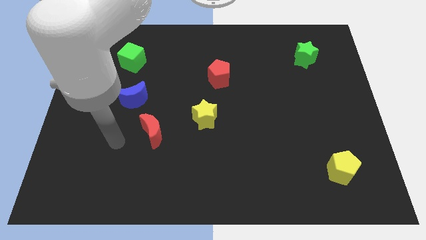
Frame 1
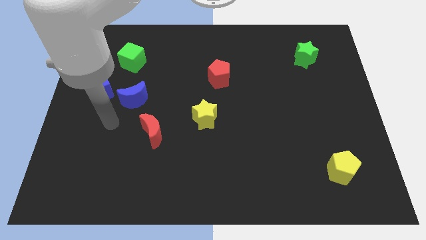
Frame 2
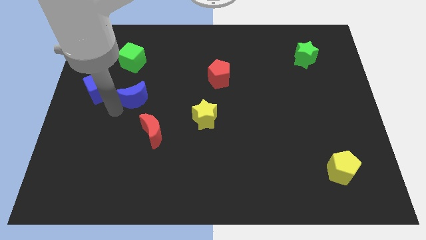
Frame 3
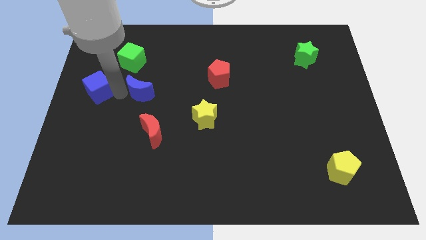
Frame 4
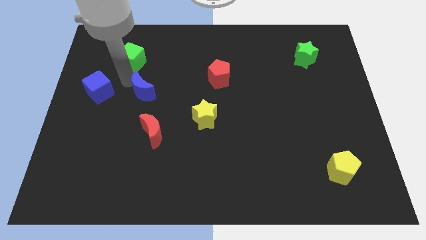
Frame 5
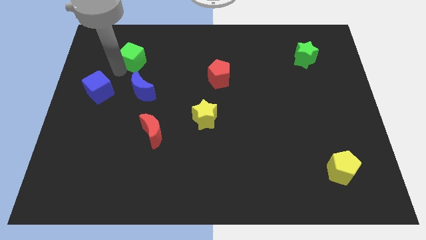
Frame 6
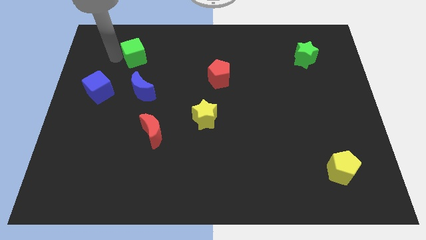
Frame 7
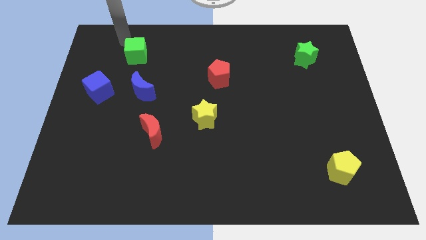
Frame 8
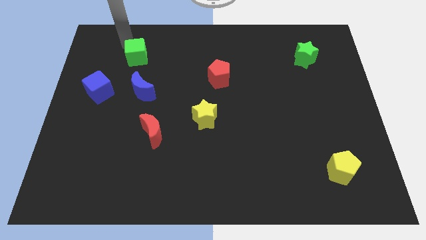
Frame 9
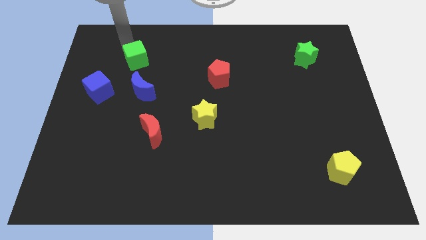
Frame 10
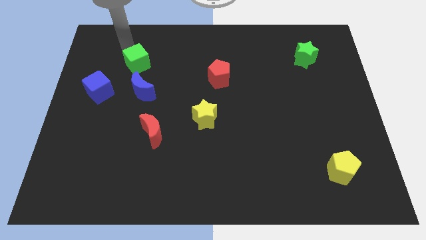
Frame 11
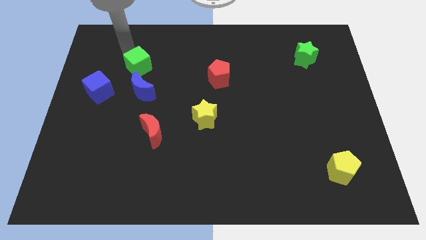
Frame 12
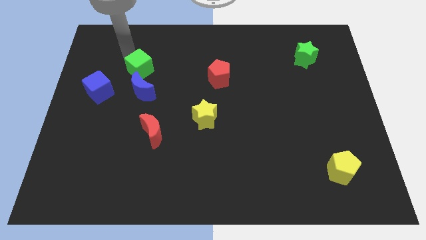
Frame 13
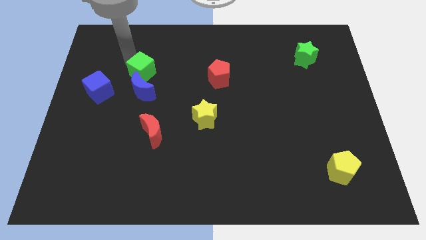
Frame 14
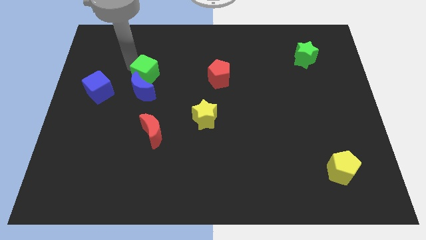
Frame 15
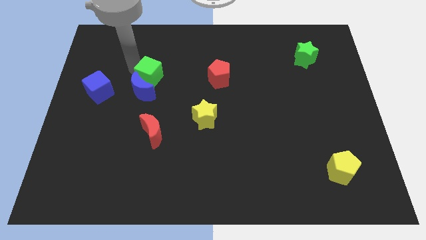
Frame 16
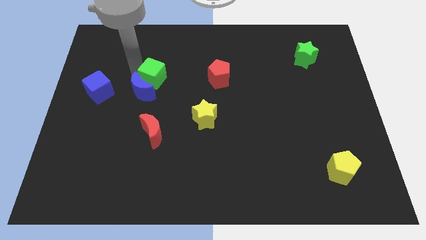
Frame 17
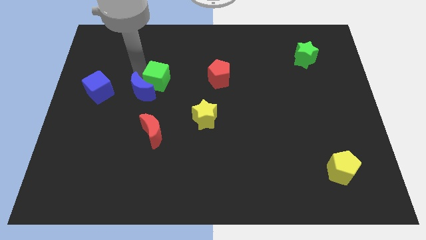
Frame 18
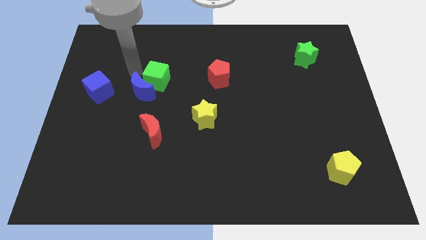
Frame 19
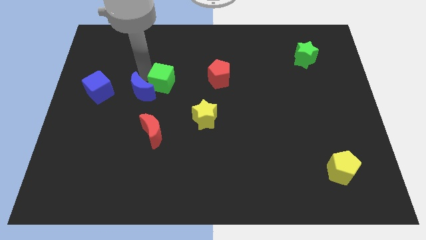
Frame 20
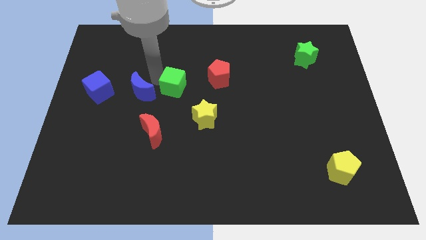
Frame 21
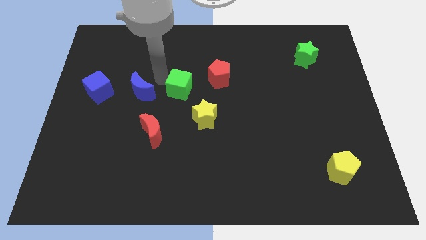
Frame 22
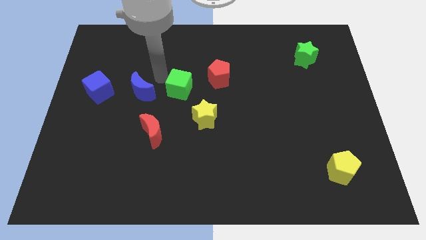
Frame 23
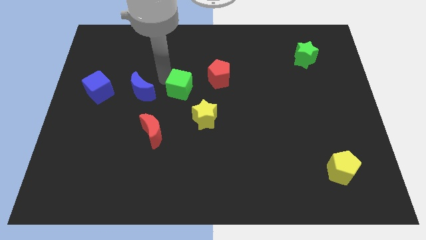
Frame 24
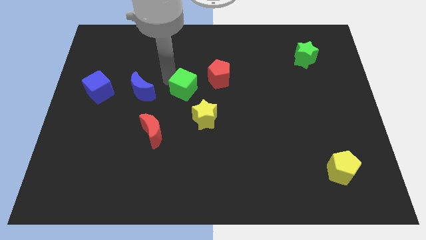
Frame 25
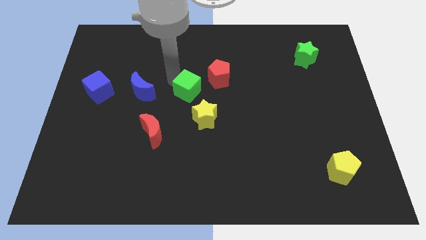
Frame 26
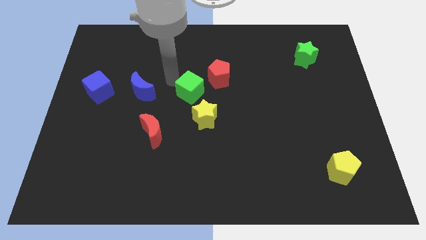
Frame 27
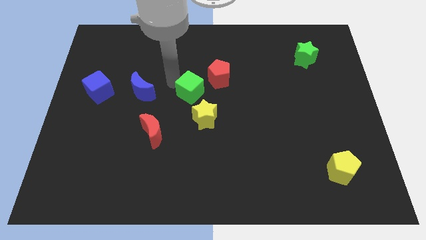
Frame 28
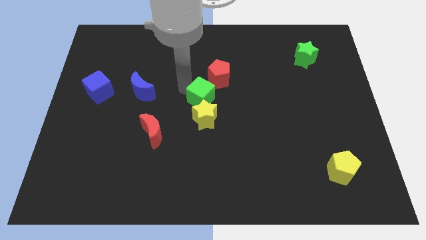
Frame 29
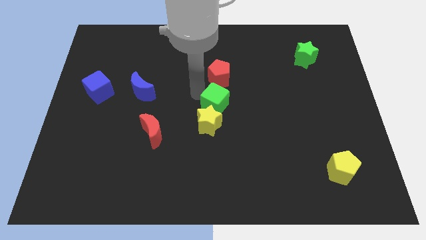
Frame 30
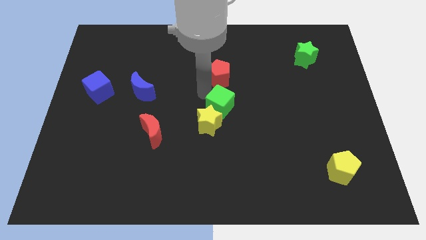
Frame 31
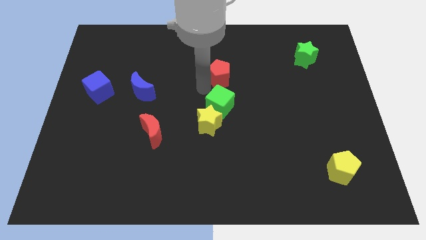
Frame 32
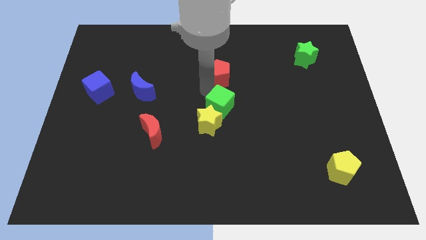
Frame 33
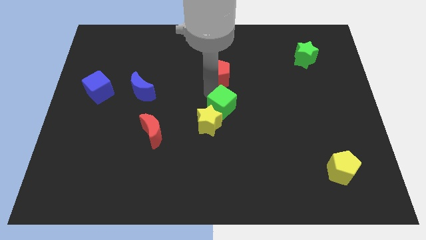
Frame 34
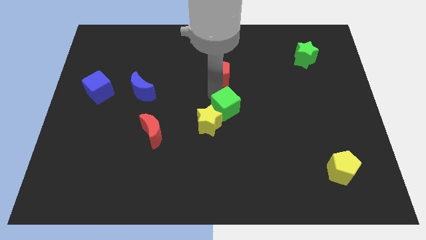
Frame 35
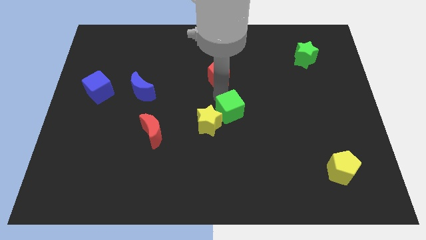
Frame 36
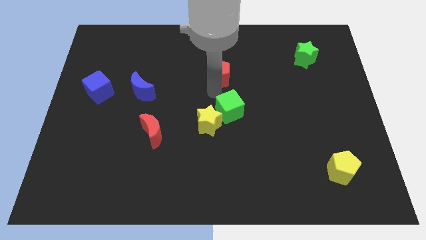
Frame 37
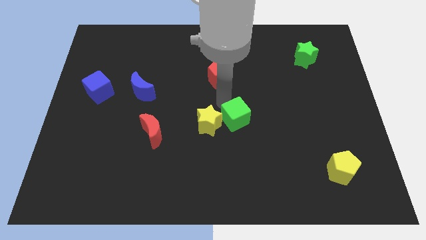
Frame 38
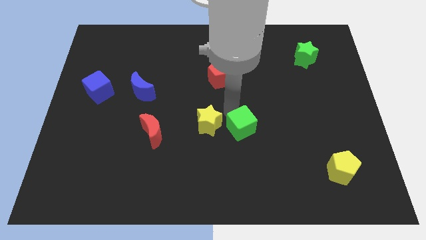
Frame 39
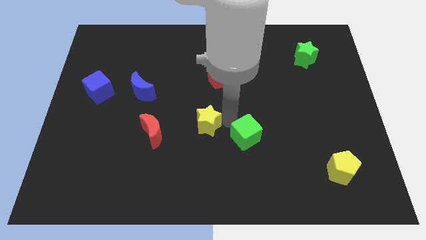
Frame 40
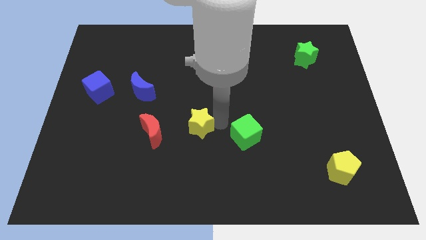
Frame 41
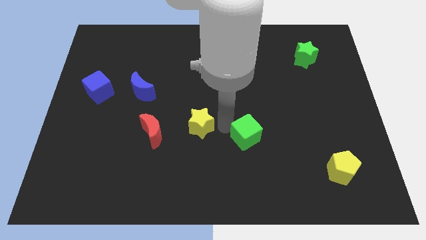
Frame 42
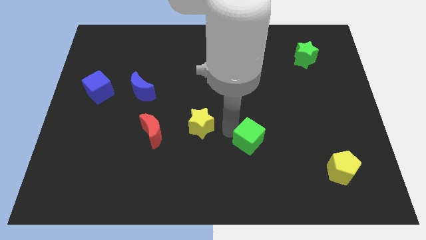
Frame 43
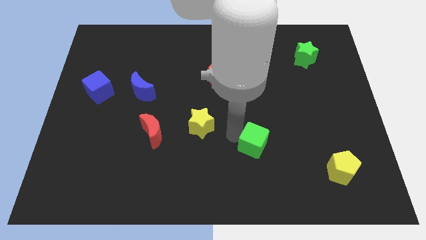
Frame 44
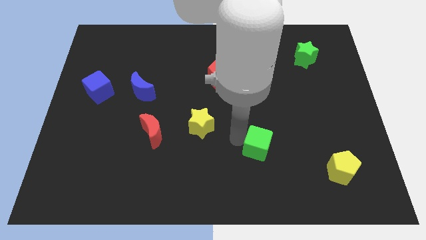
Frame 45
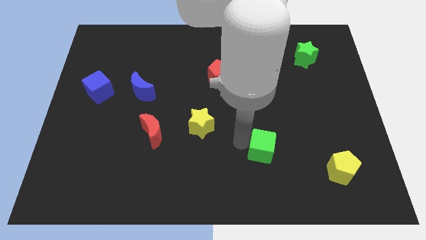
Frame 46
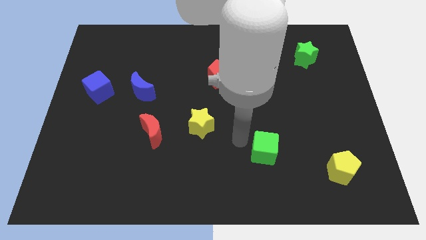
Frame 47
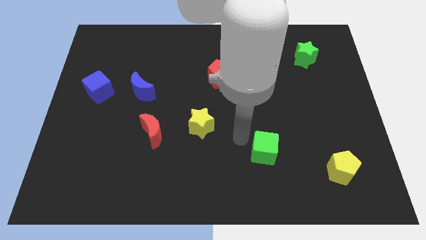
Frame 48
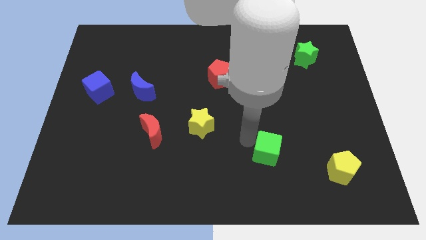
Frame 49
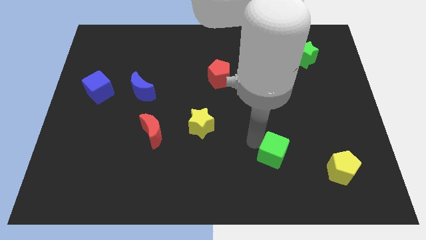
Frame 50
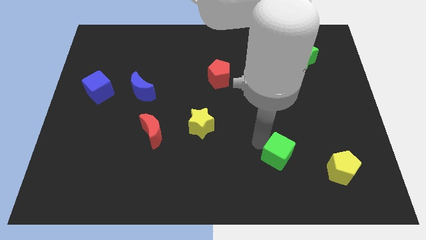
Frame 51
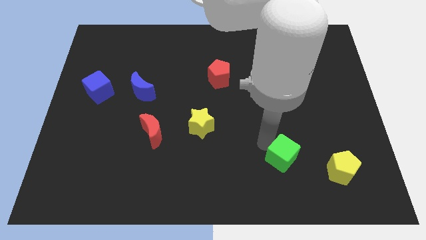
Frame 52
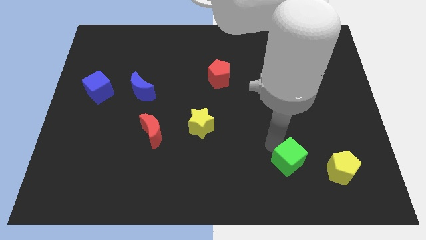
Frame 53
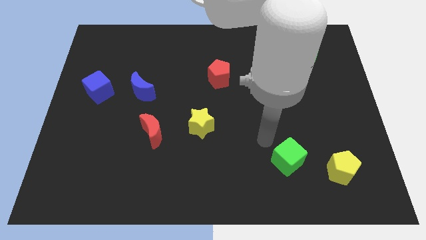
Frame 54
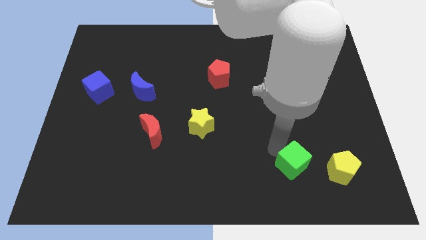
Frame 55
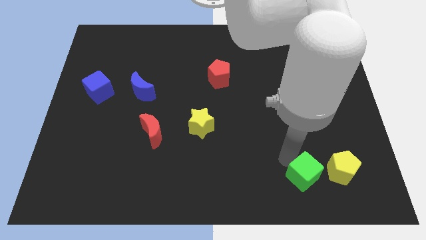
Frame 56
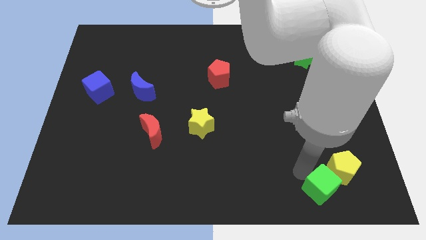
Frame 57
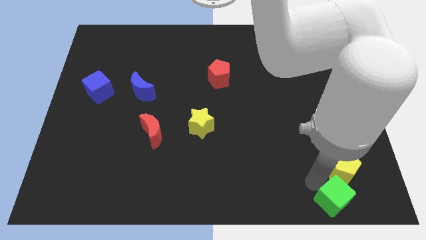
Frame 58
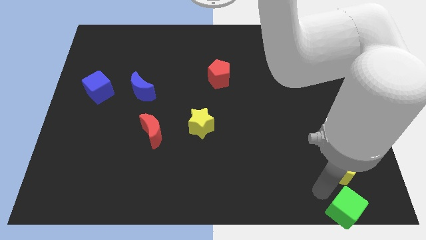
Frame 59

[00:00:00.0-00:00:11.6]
slide the green cube to the lower right corner

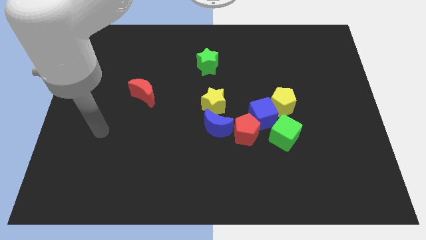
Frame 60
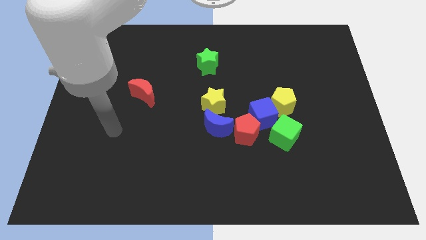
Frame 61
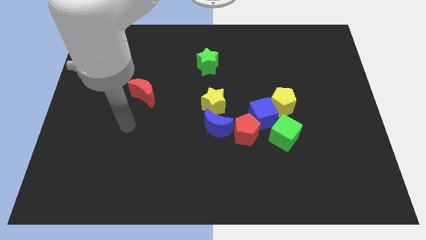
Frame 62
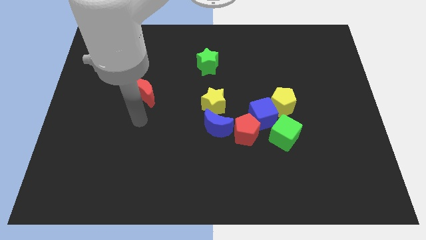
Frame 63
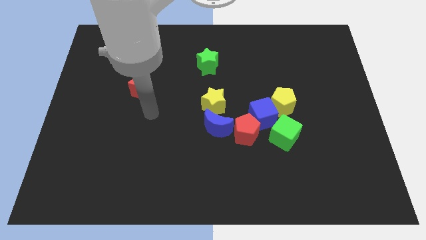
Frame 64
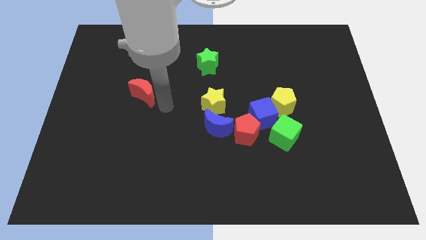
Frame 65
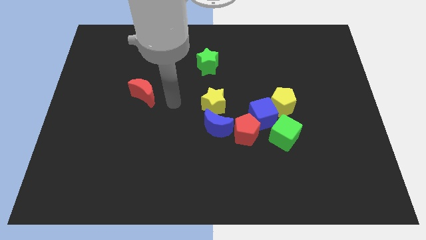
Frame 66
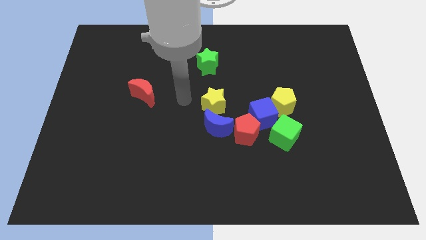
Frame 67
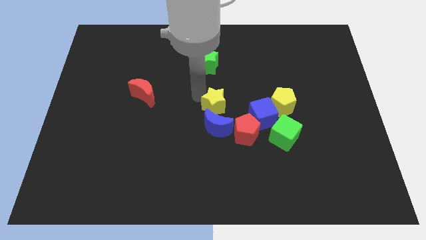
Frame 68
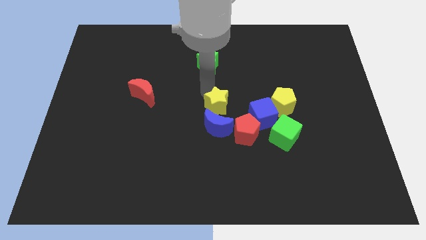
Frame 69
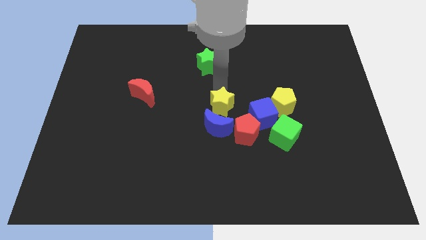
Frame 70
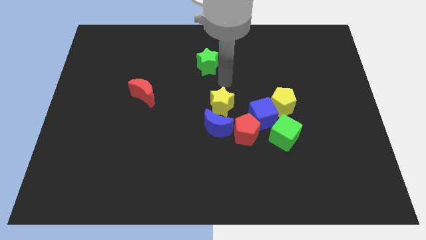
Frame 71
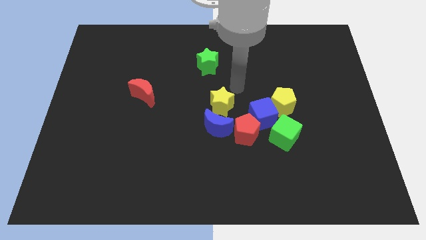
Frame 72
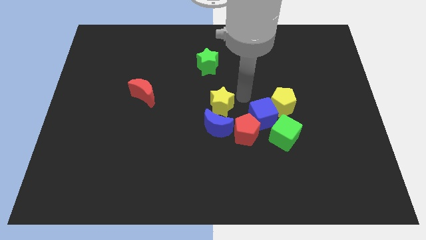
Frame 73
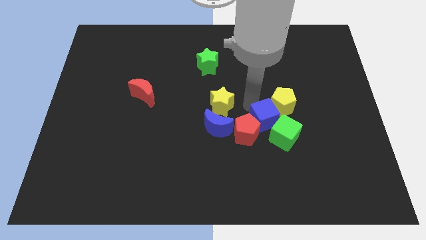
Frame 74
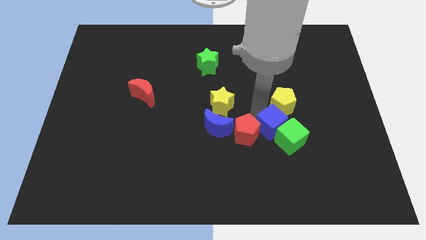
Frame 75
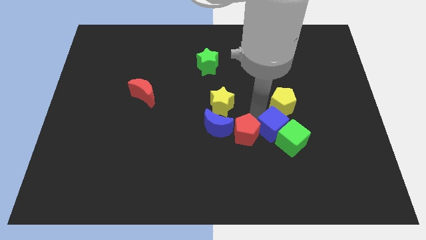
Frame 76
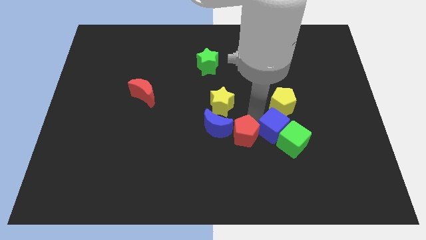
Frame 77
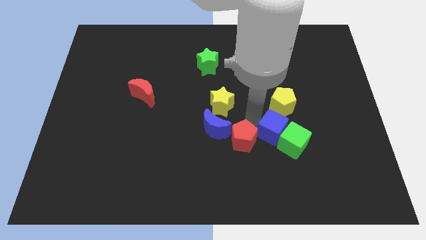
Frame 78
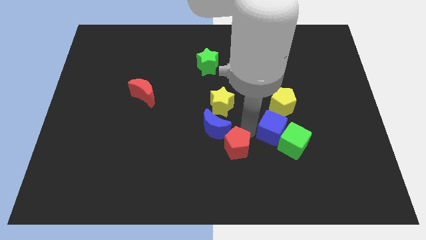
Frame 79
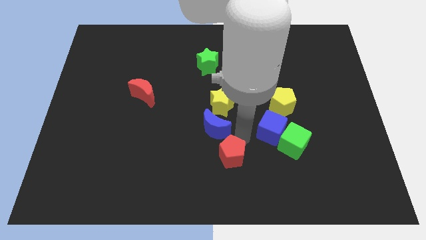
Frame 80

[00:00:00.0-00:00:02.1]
move the red pentagon to the bottom
